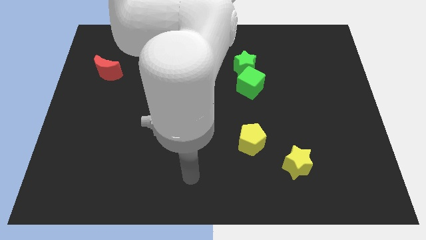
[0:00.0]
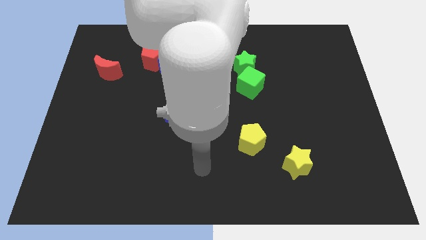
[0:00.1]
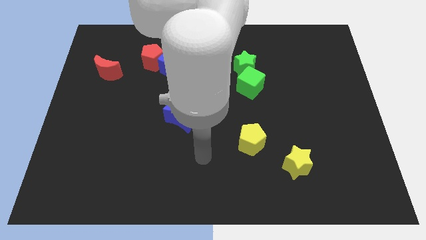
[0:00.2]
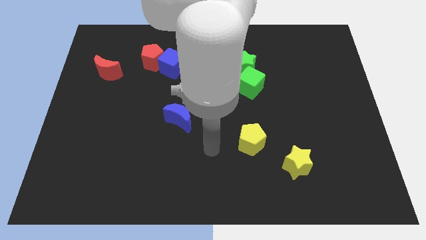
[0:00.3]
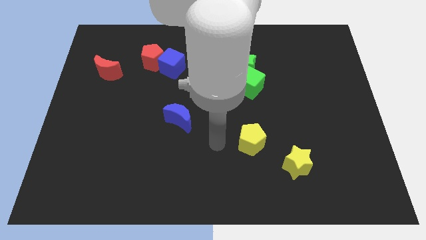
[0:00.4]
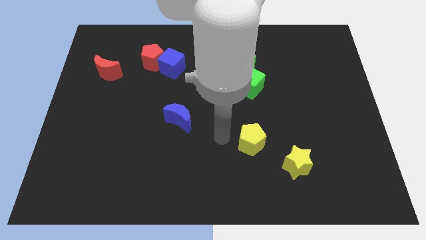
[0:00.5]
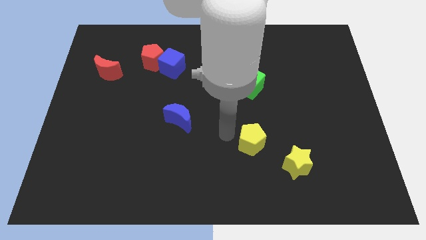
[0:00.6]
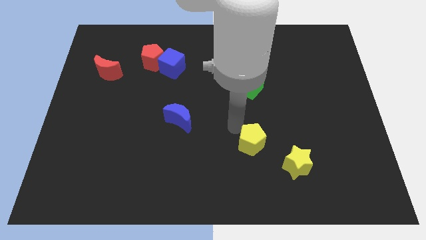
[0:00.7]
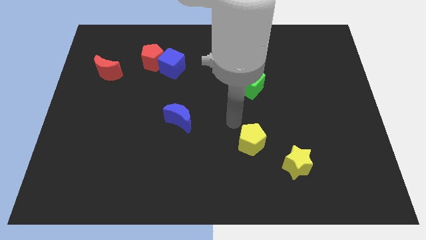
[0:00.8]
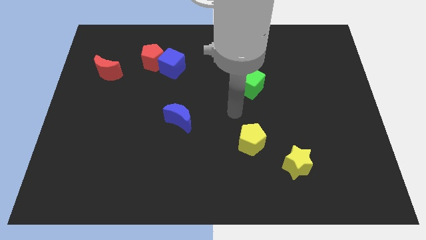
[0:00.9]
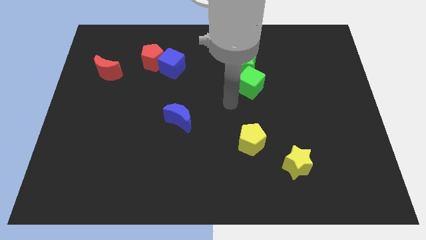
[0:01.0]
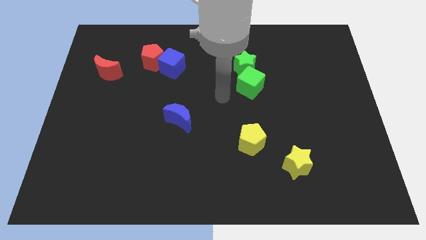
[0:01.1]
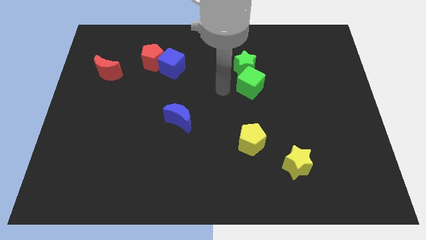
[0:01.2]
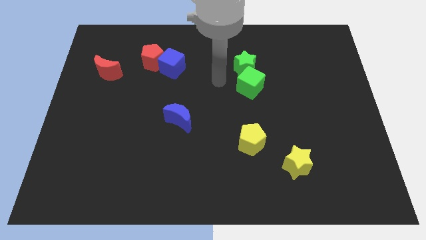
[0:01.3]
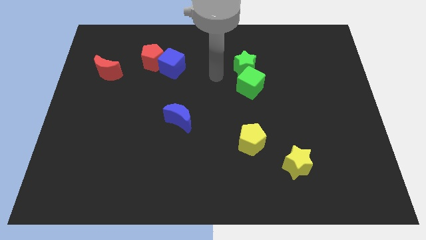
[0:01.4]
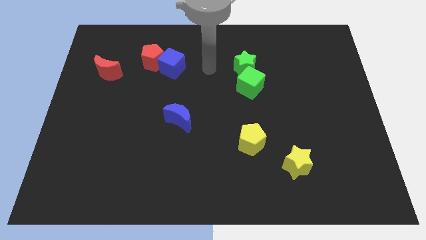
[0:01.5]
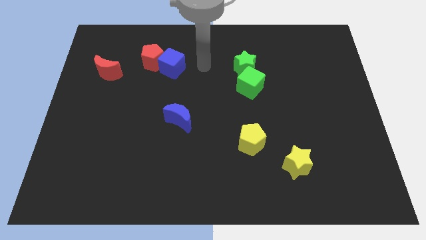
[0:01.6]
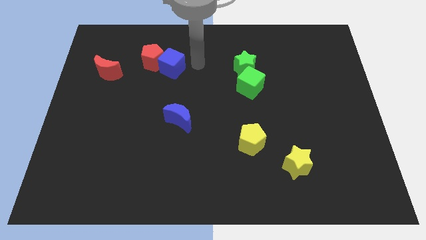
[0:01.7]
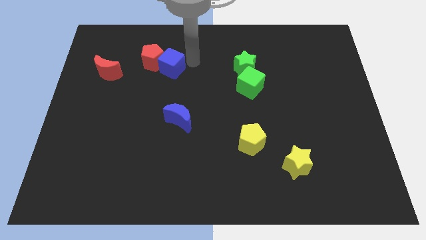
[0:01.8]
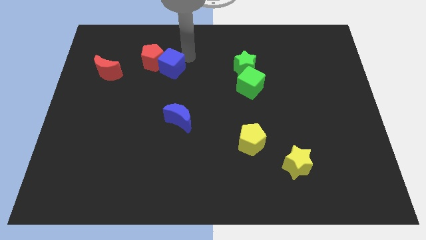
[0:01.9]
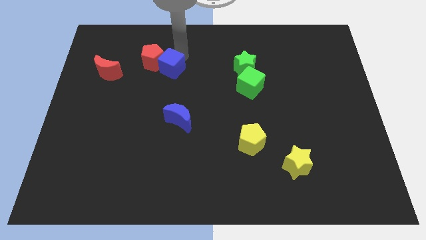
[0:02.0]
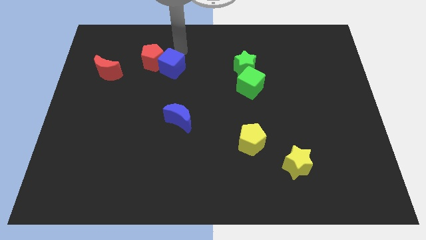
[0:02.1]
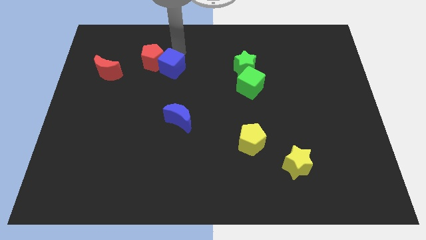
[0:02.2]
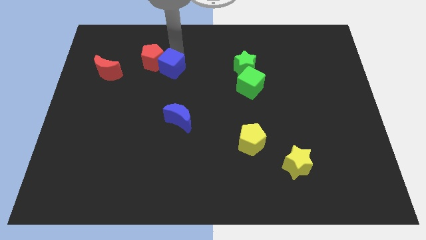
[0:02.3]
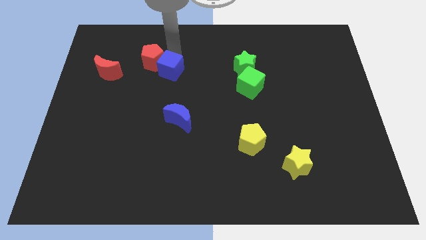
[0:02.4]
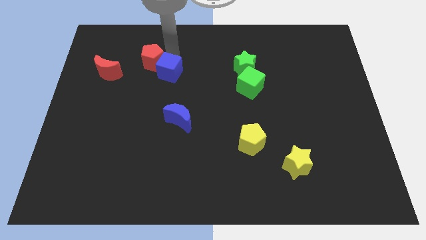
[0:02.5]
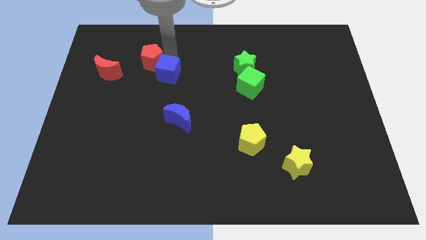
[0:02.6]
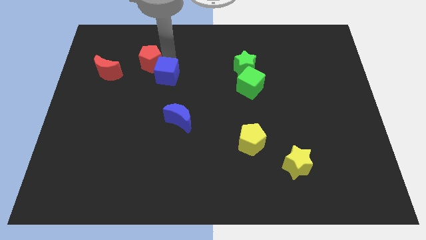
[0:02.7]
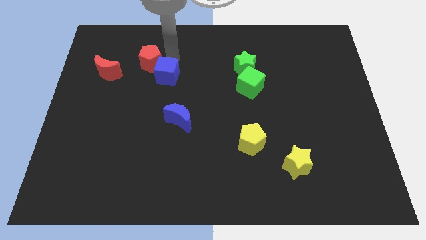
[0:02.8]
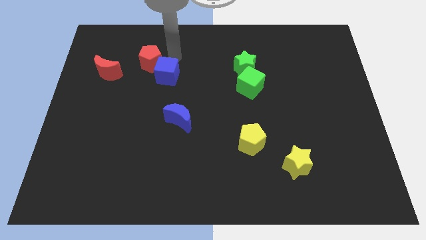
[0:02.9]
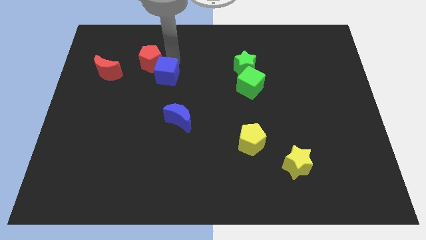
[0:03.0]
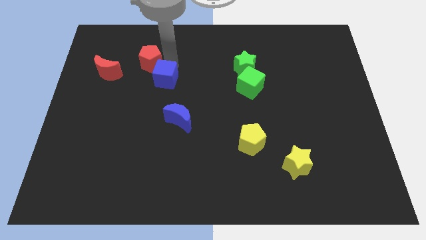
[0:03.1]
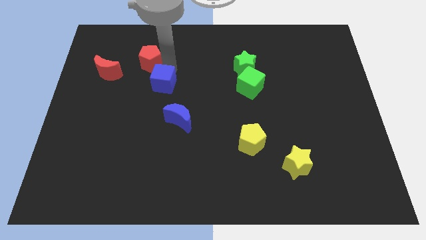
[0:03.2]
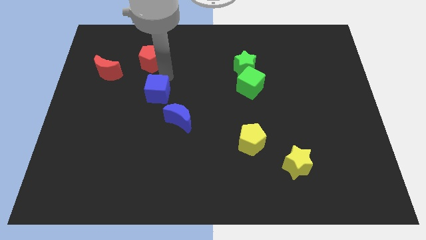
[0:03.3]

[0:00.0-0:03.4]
push the blue cube slightly down

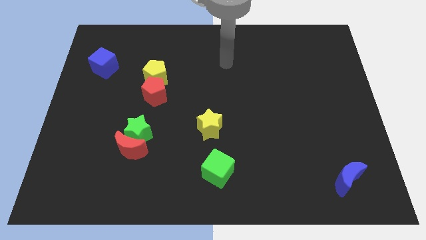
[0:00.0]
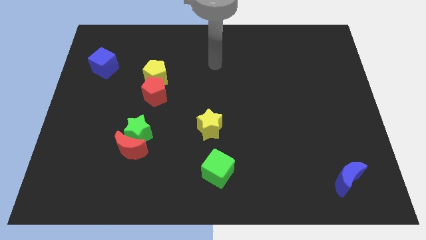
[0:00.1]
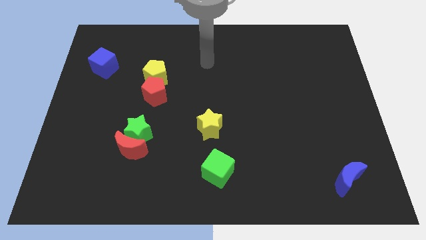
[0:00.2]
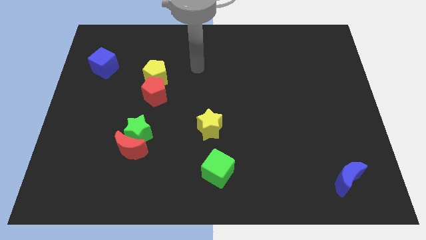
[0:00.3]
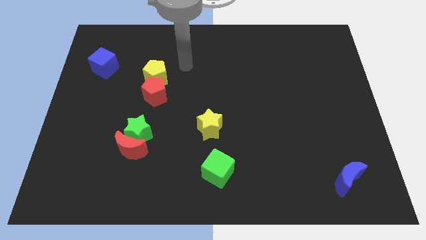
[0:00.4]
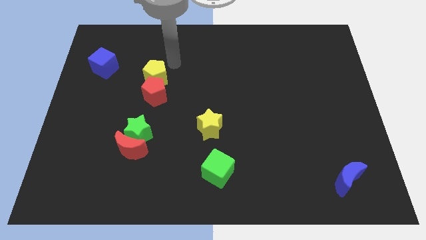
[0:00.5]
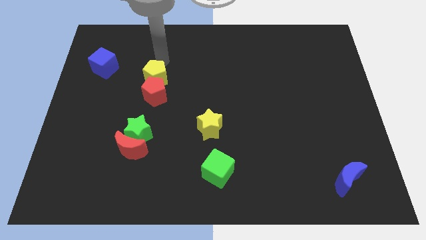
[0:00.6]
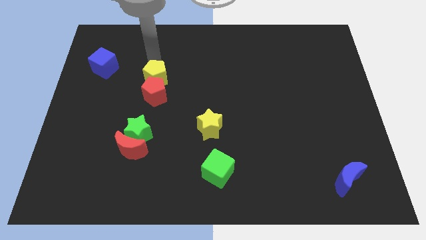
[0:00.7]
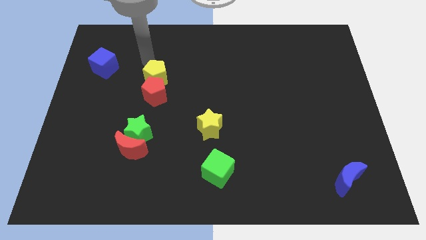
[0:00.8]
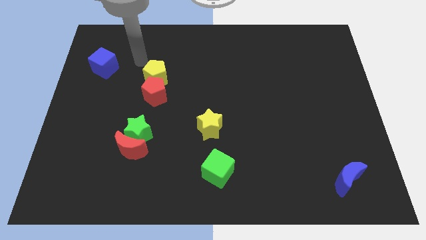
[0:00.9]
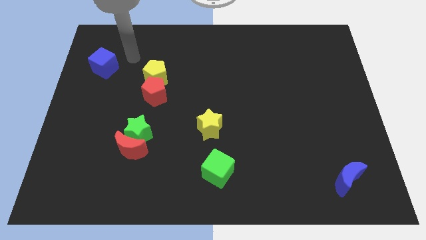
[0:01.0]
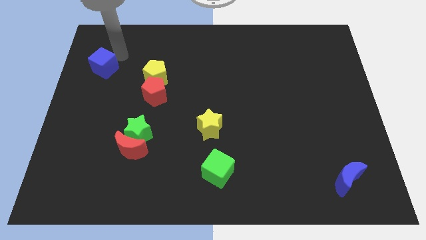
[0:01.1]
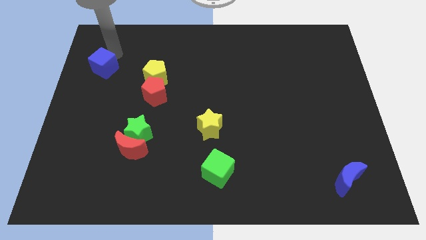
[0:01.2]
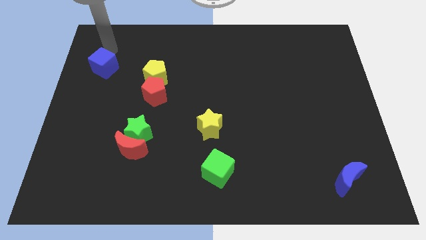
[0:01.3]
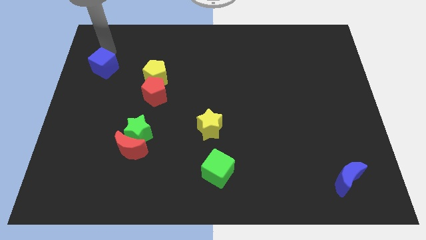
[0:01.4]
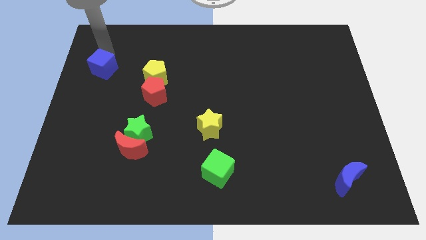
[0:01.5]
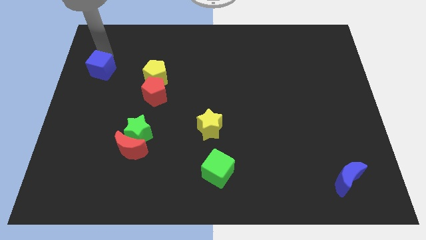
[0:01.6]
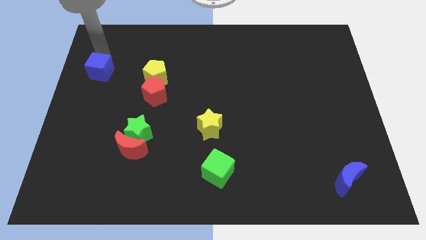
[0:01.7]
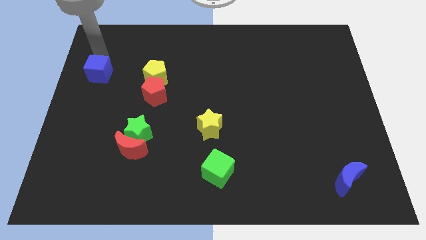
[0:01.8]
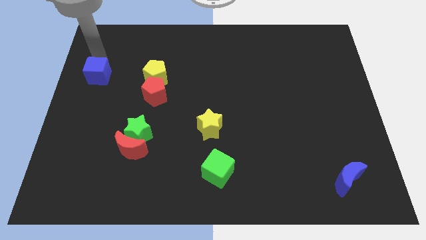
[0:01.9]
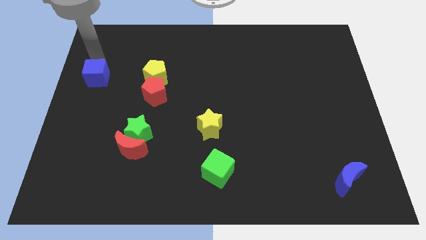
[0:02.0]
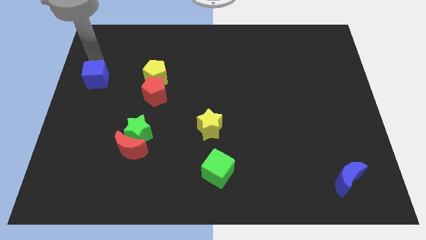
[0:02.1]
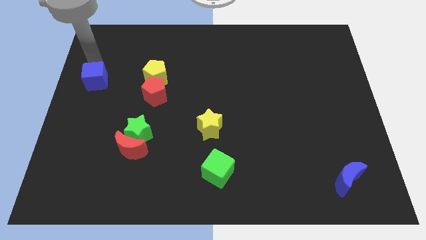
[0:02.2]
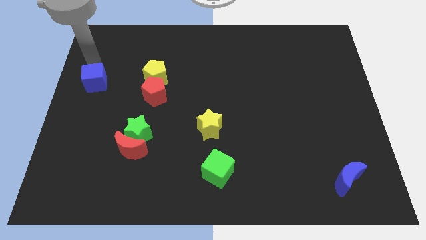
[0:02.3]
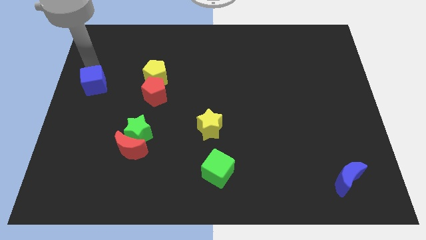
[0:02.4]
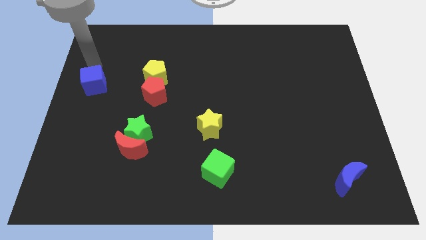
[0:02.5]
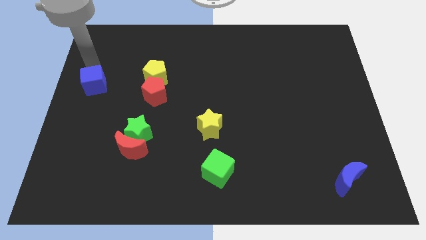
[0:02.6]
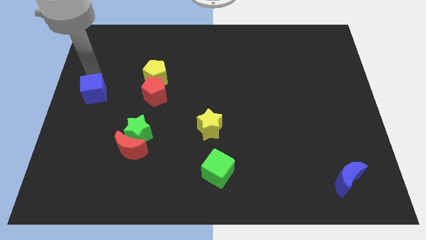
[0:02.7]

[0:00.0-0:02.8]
move the blue cube downwards a little

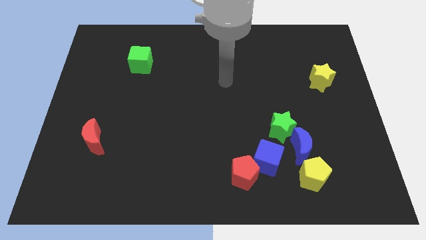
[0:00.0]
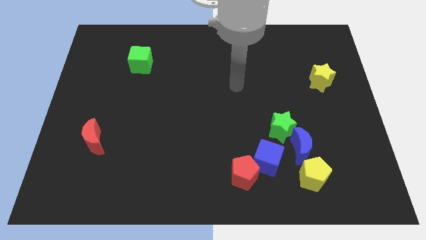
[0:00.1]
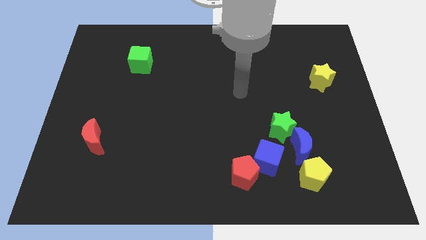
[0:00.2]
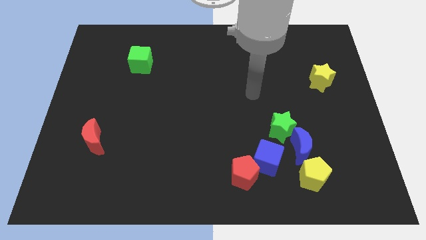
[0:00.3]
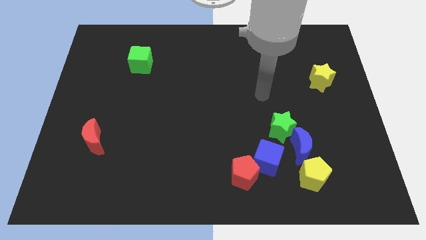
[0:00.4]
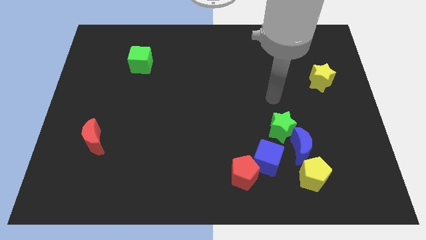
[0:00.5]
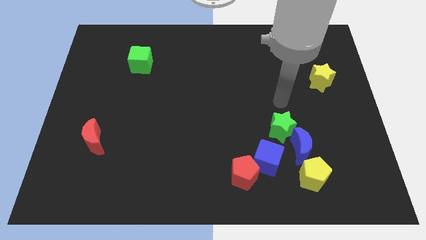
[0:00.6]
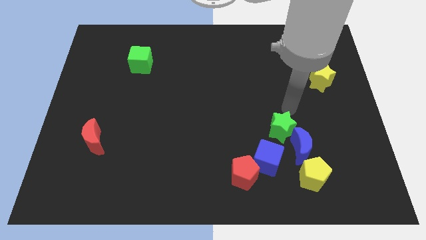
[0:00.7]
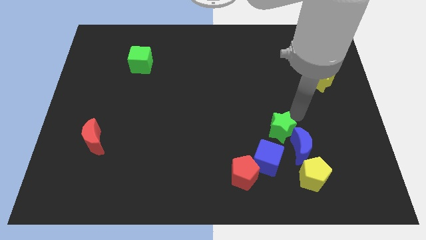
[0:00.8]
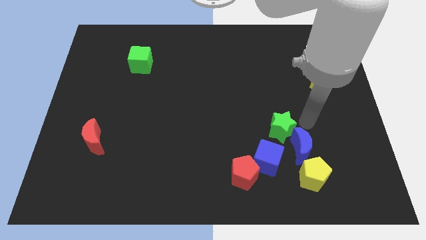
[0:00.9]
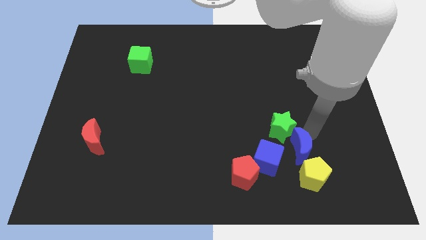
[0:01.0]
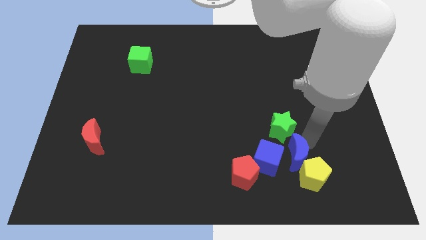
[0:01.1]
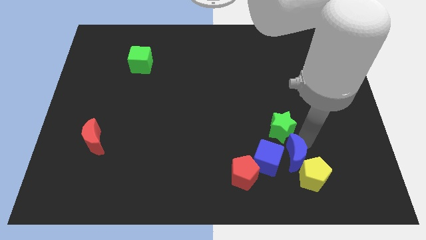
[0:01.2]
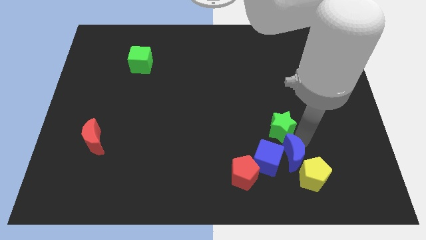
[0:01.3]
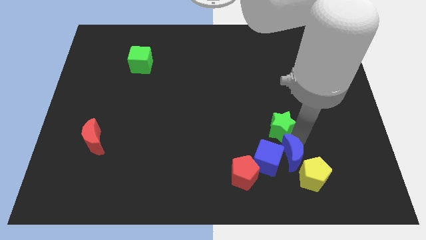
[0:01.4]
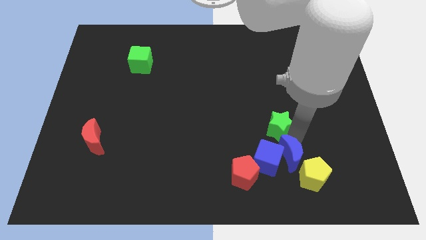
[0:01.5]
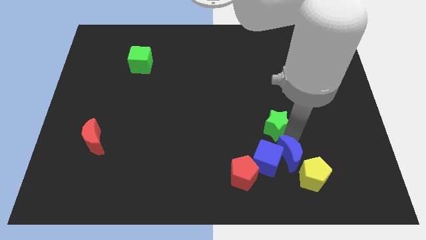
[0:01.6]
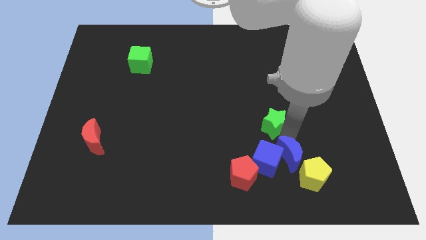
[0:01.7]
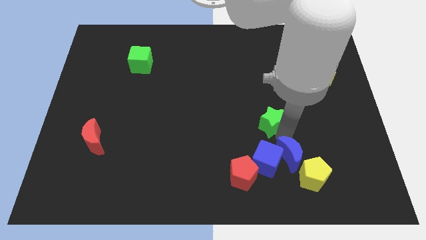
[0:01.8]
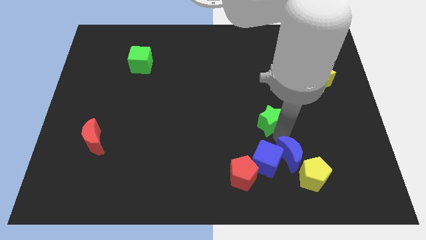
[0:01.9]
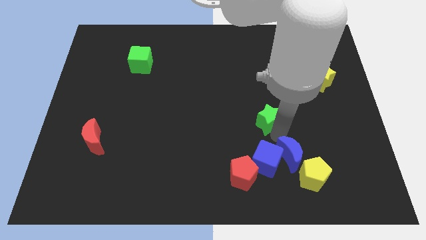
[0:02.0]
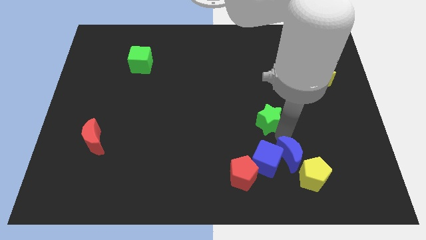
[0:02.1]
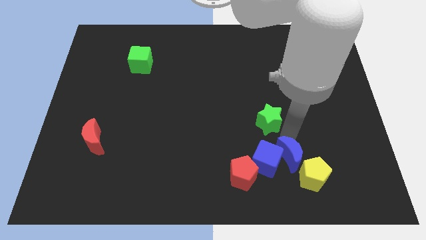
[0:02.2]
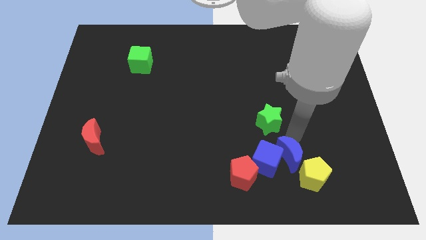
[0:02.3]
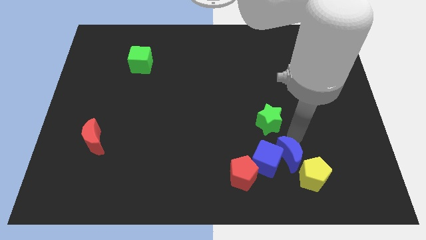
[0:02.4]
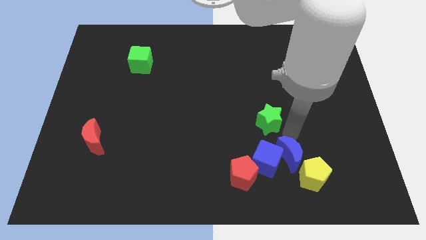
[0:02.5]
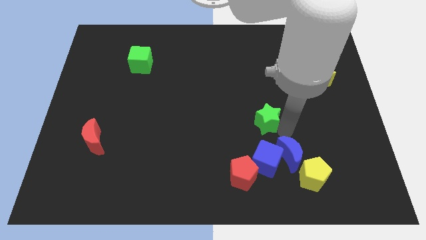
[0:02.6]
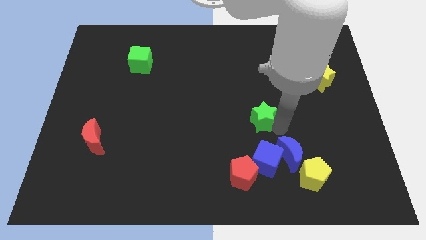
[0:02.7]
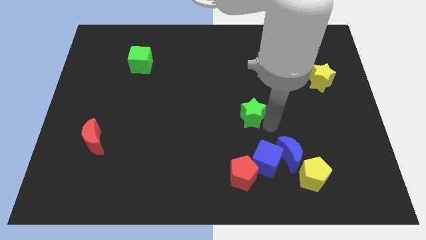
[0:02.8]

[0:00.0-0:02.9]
push the green star a little up and then to the left
